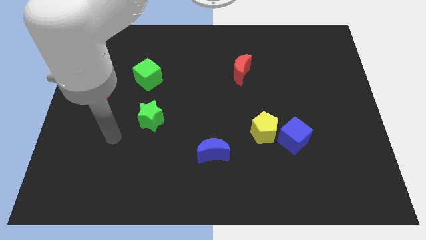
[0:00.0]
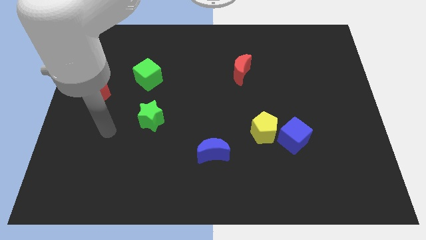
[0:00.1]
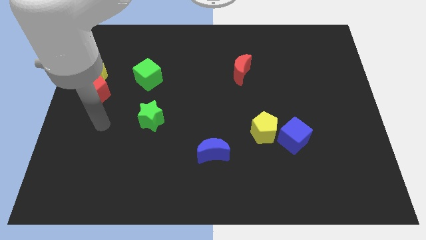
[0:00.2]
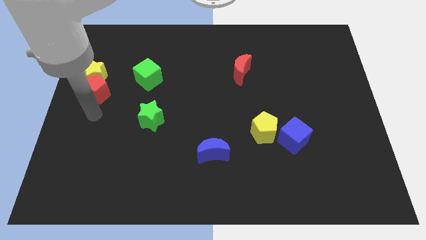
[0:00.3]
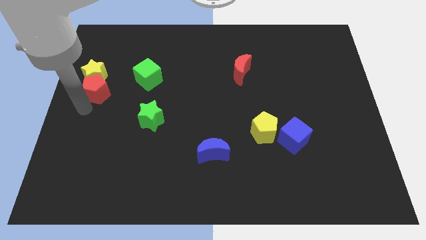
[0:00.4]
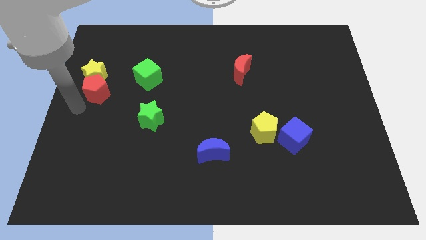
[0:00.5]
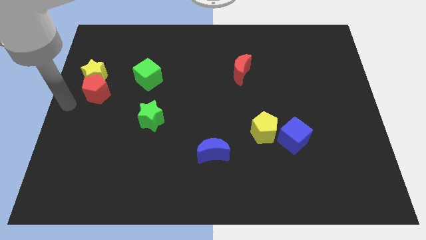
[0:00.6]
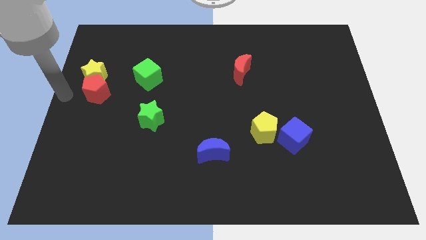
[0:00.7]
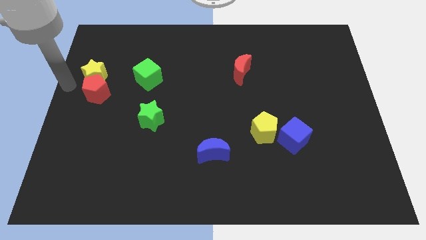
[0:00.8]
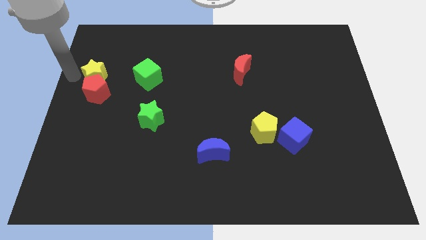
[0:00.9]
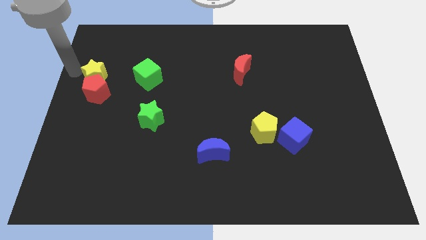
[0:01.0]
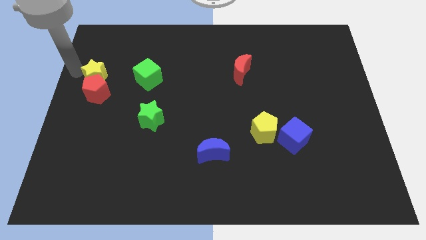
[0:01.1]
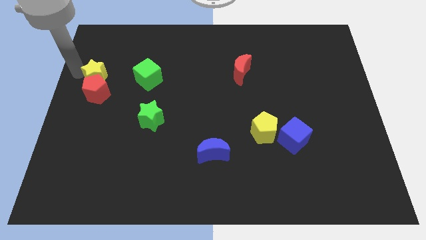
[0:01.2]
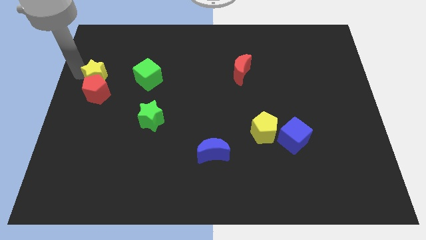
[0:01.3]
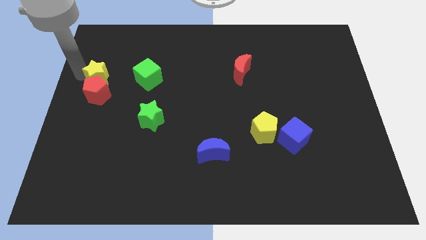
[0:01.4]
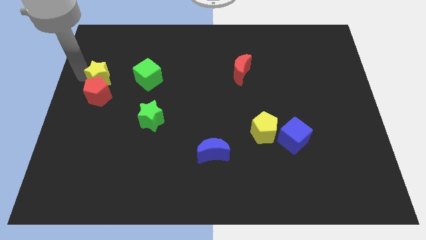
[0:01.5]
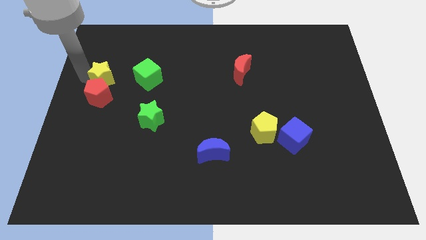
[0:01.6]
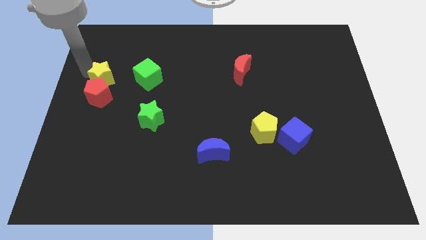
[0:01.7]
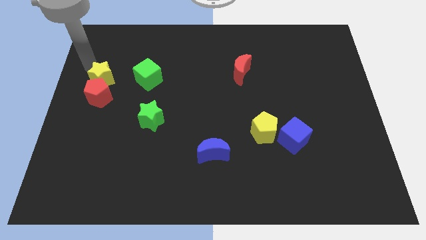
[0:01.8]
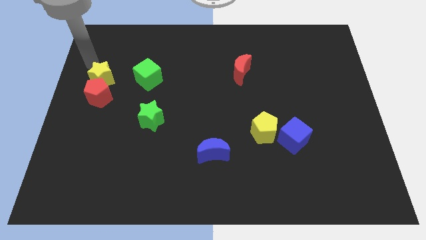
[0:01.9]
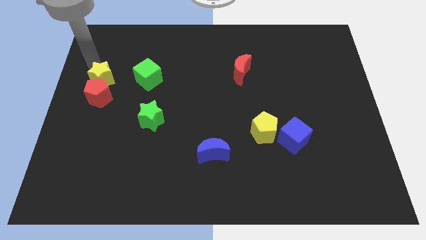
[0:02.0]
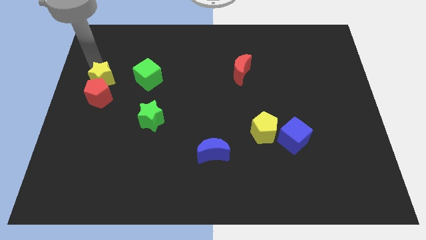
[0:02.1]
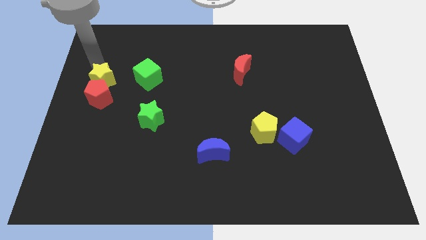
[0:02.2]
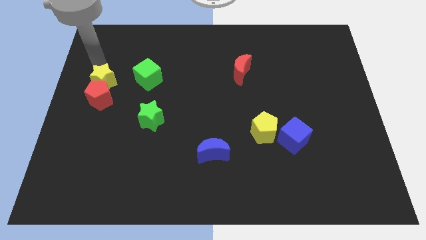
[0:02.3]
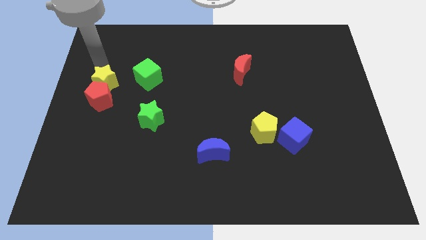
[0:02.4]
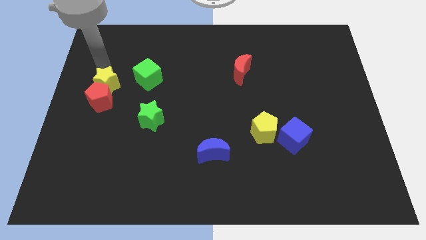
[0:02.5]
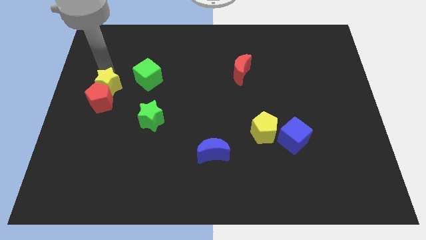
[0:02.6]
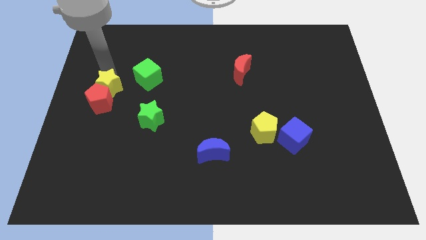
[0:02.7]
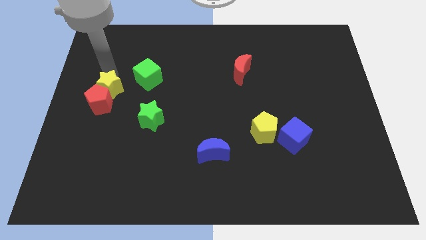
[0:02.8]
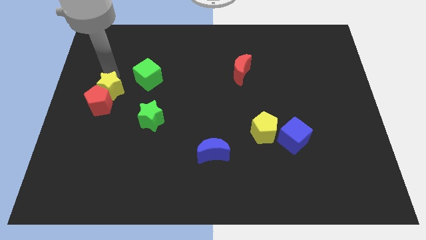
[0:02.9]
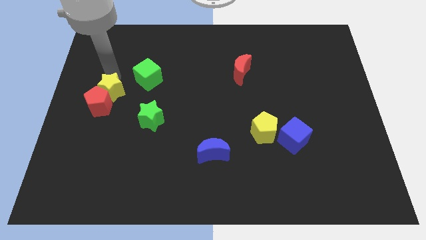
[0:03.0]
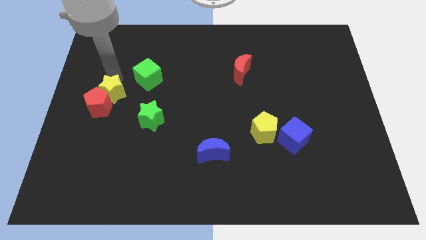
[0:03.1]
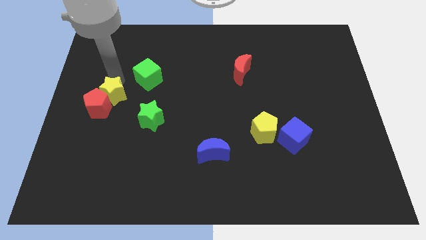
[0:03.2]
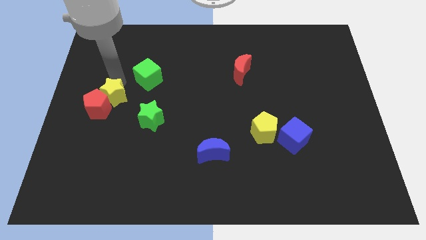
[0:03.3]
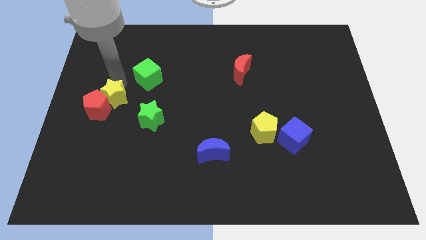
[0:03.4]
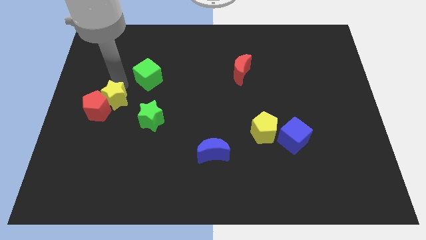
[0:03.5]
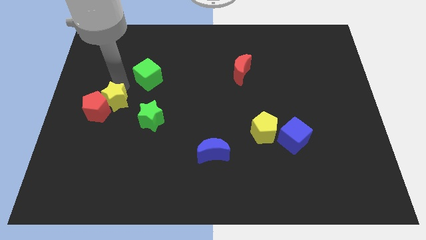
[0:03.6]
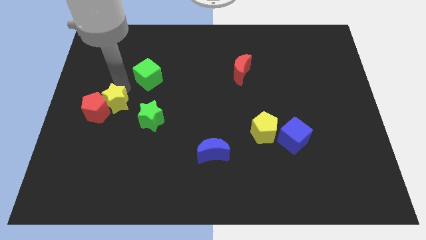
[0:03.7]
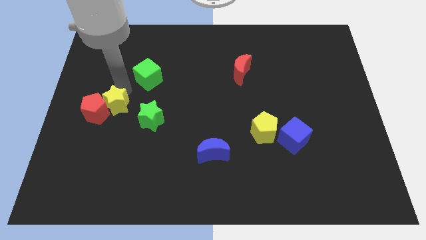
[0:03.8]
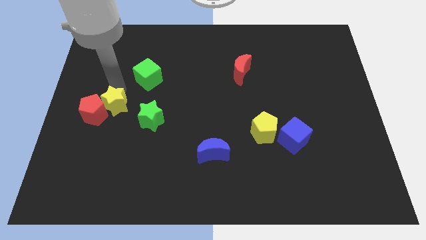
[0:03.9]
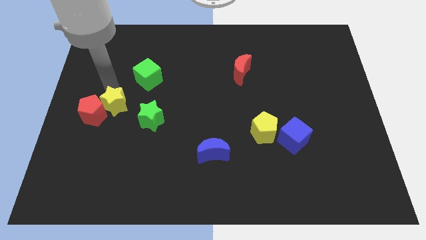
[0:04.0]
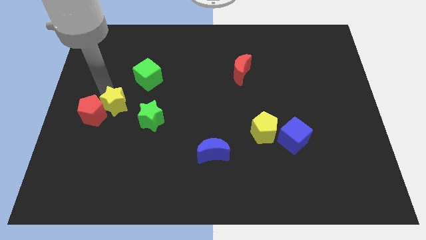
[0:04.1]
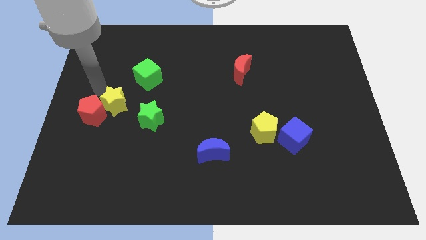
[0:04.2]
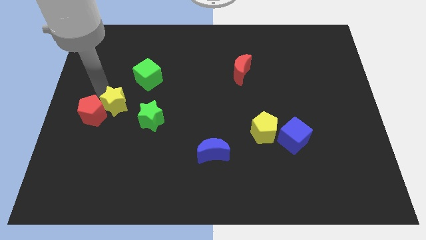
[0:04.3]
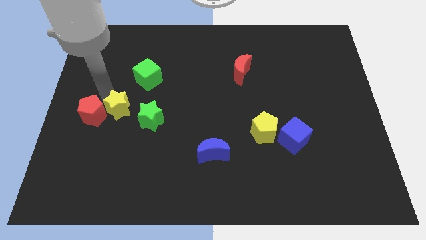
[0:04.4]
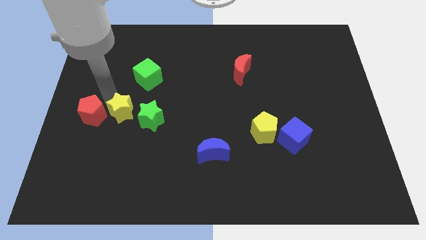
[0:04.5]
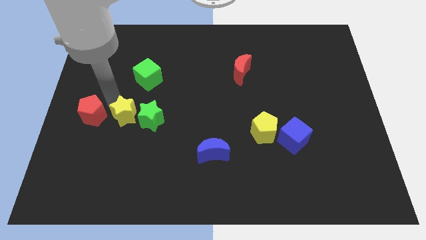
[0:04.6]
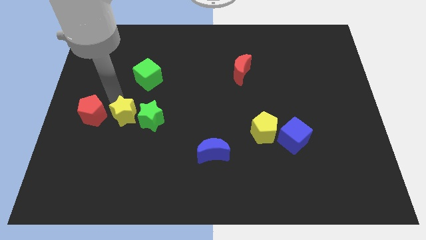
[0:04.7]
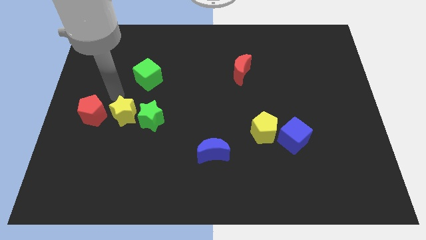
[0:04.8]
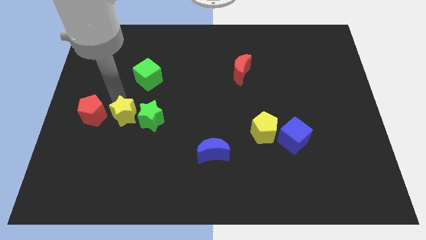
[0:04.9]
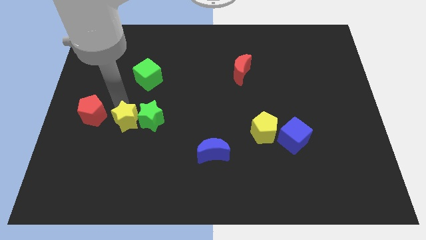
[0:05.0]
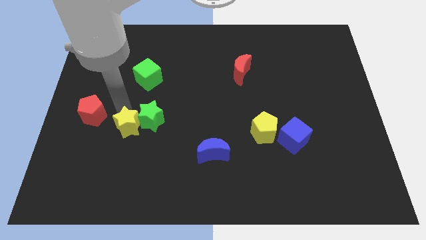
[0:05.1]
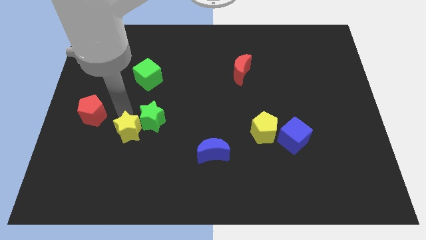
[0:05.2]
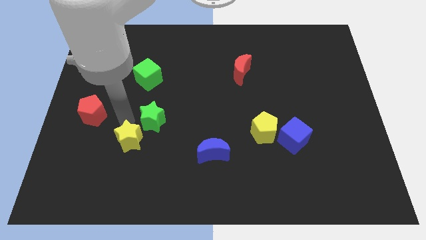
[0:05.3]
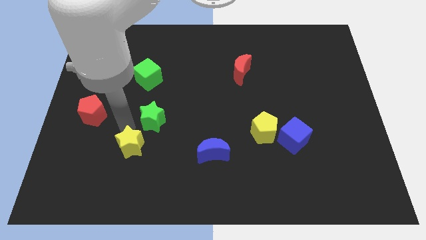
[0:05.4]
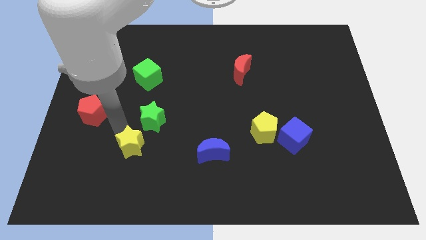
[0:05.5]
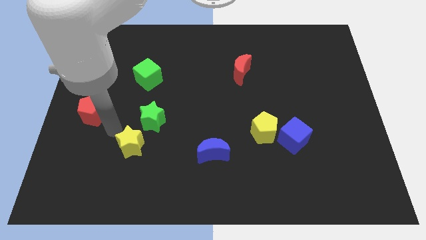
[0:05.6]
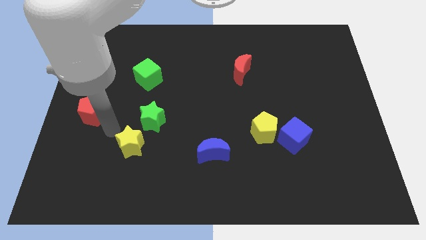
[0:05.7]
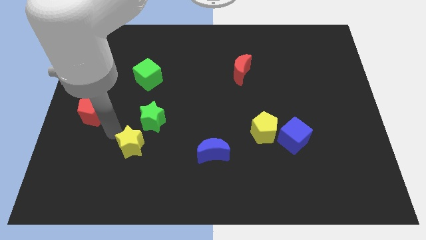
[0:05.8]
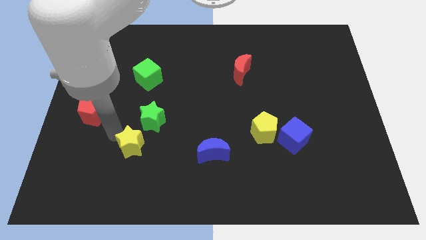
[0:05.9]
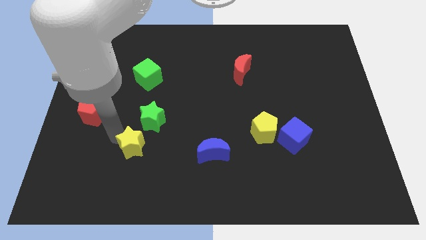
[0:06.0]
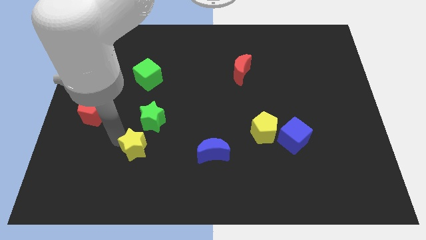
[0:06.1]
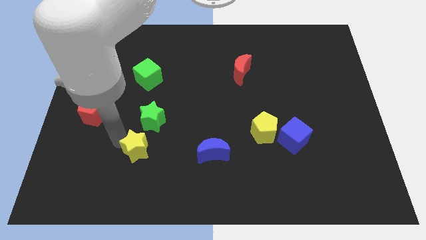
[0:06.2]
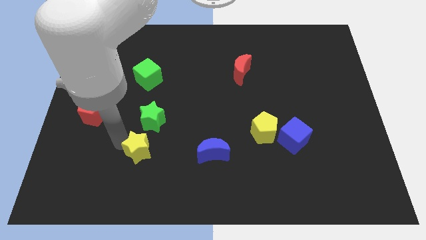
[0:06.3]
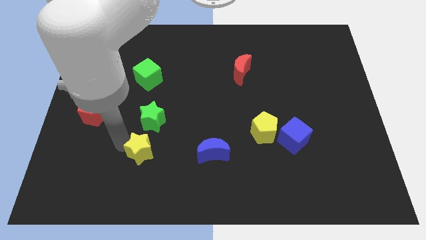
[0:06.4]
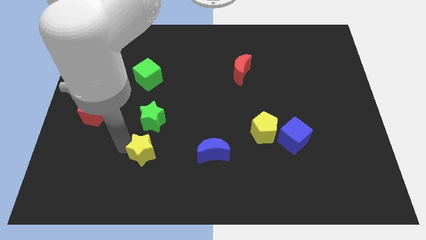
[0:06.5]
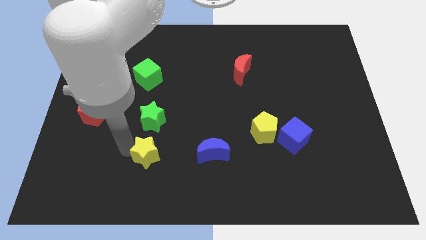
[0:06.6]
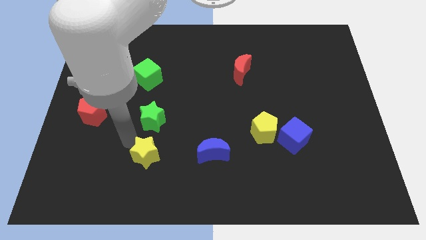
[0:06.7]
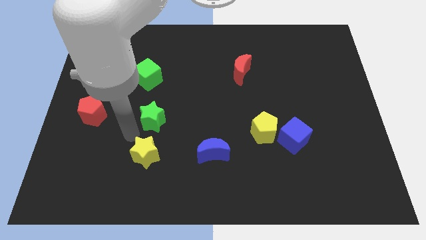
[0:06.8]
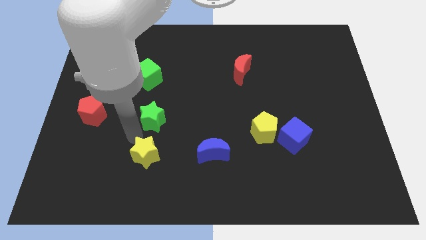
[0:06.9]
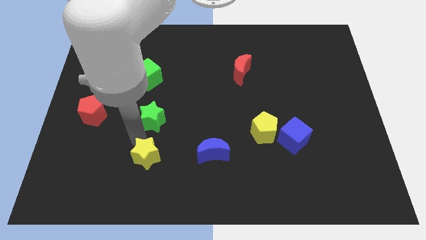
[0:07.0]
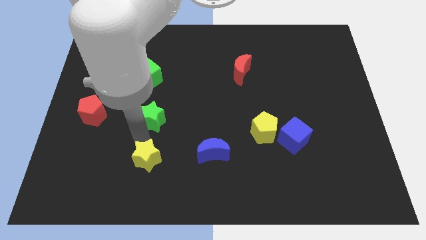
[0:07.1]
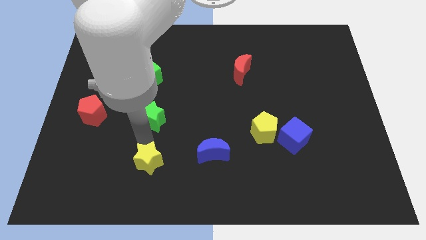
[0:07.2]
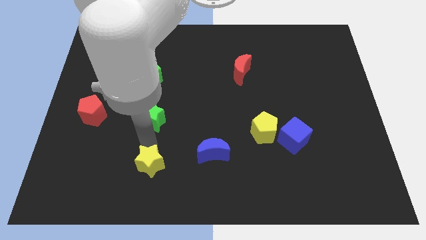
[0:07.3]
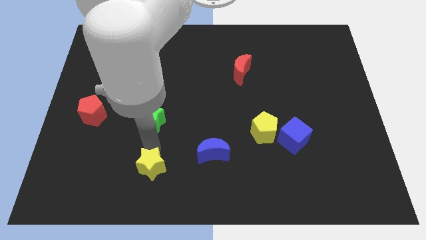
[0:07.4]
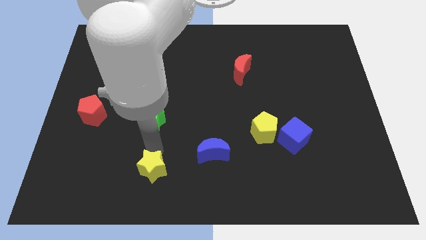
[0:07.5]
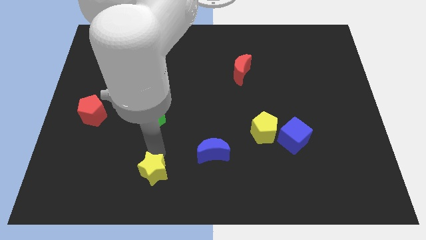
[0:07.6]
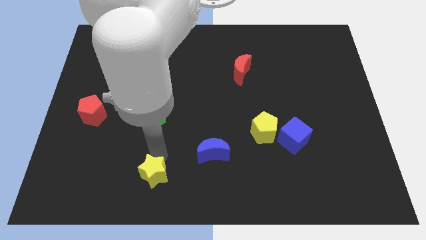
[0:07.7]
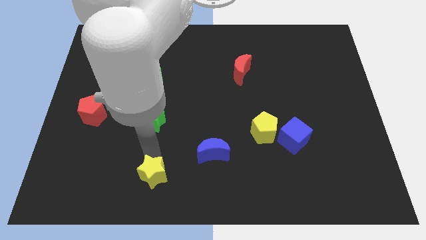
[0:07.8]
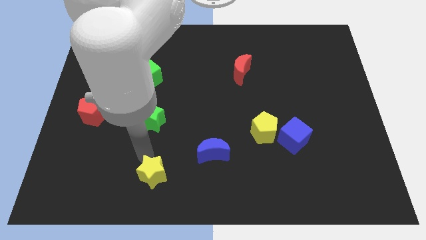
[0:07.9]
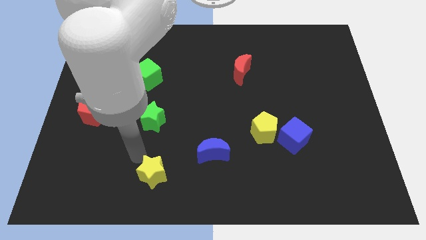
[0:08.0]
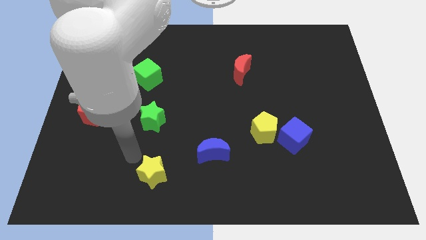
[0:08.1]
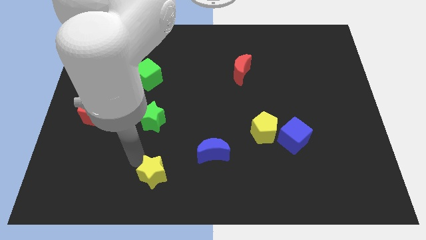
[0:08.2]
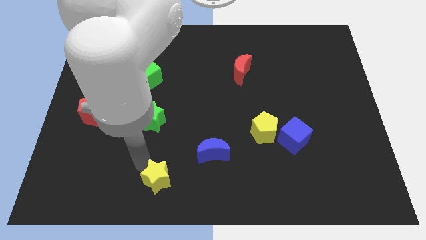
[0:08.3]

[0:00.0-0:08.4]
move the yellow star to the bottom
